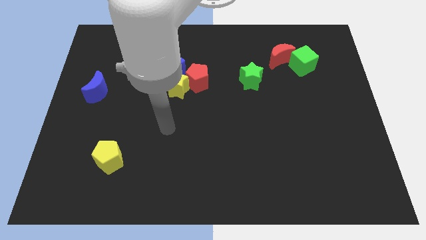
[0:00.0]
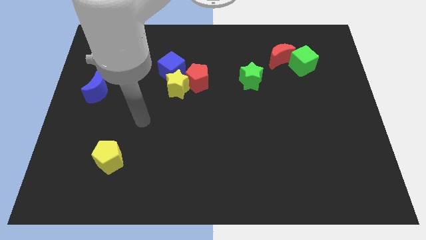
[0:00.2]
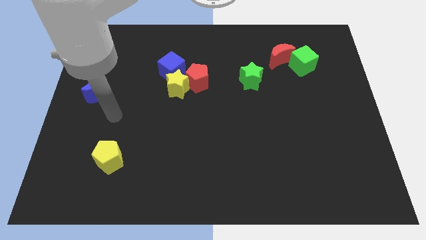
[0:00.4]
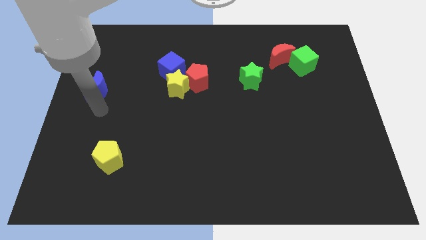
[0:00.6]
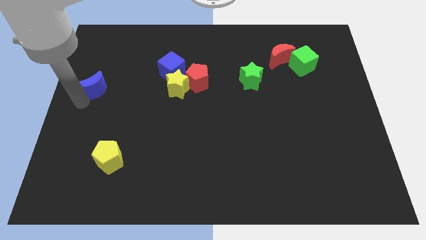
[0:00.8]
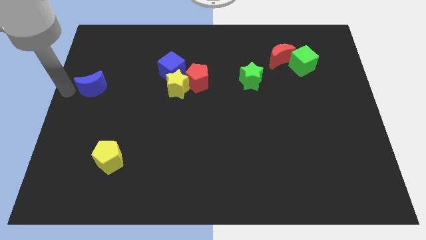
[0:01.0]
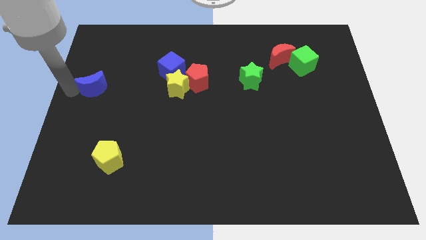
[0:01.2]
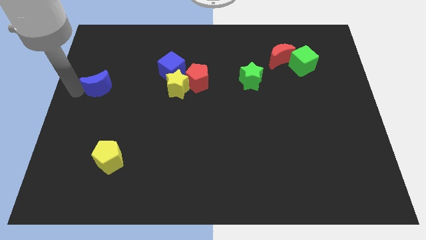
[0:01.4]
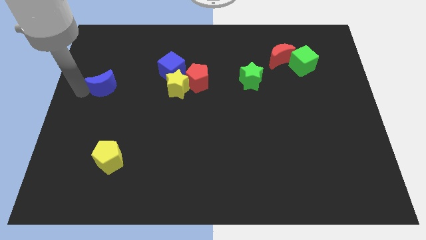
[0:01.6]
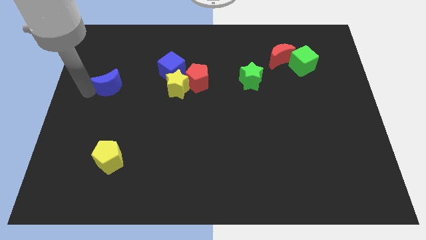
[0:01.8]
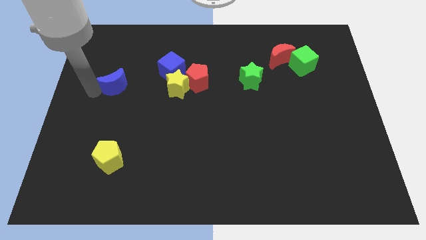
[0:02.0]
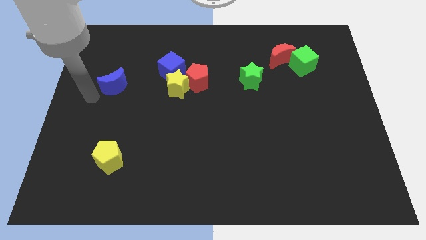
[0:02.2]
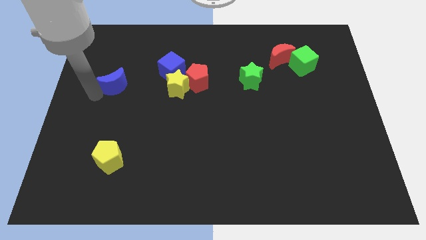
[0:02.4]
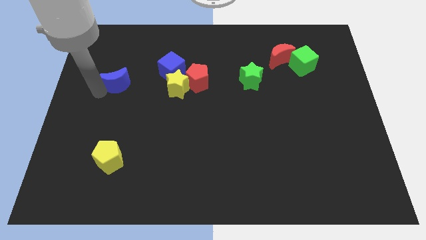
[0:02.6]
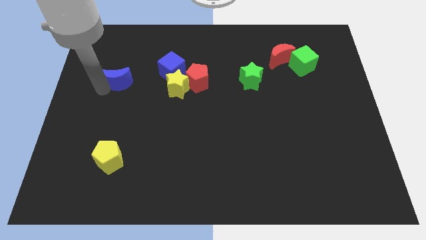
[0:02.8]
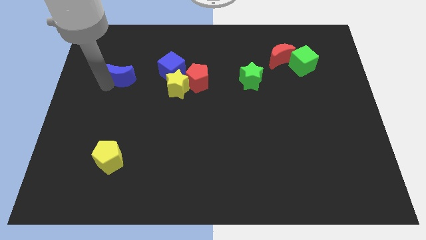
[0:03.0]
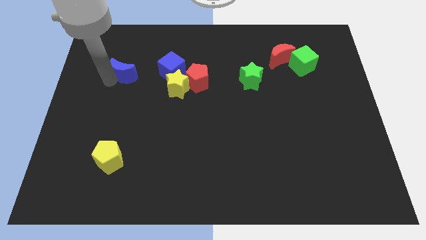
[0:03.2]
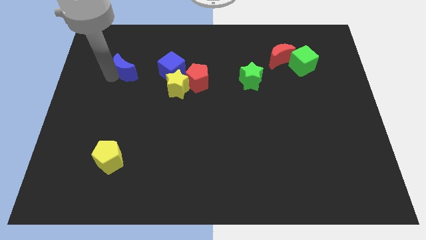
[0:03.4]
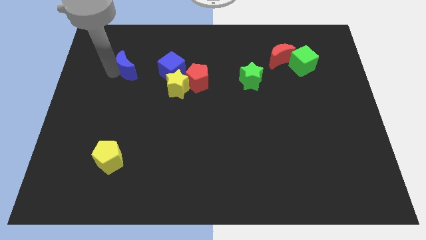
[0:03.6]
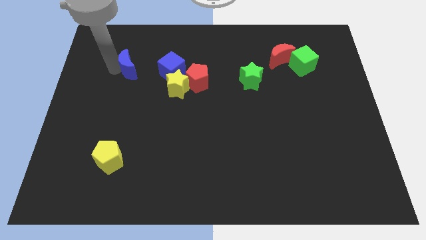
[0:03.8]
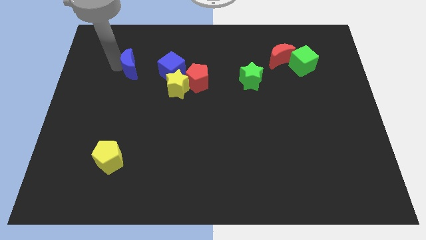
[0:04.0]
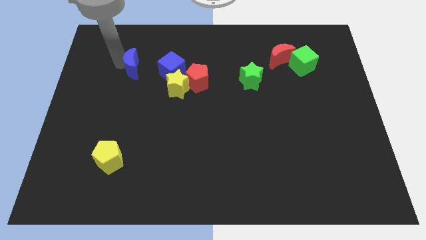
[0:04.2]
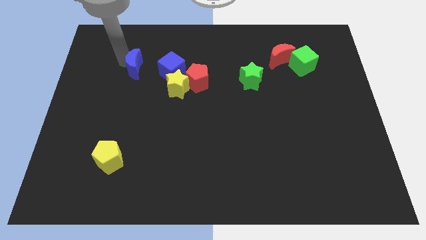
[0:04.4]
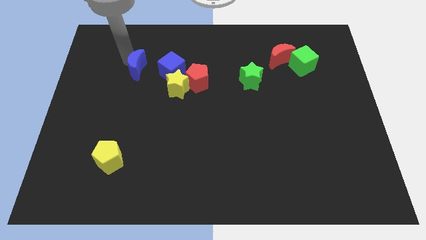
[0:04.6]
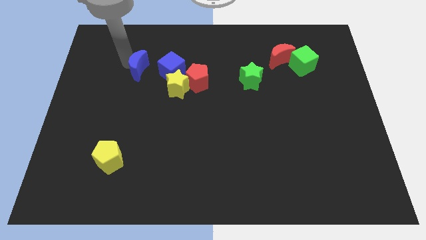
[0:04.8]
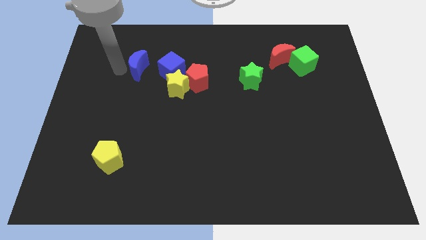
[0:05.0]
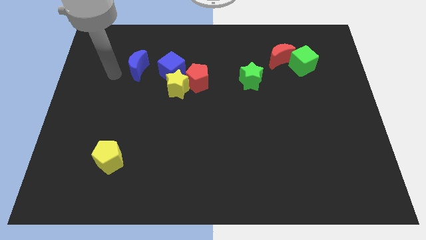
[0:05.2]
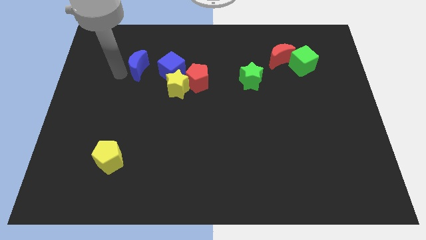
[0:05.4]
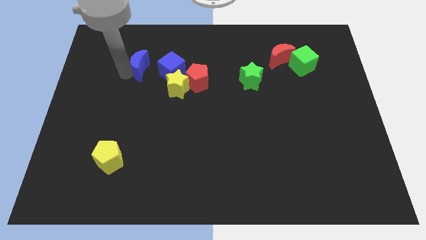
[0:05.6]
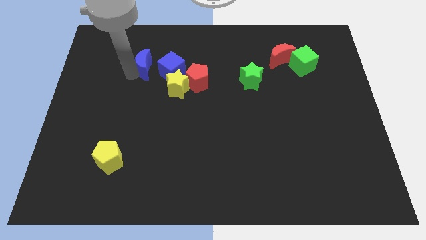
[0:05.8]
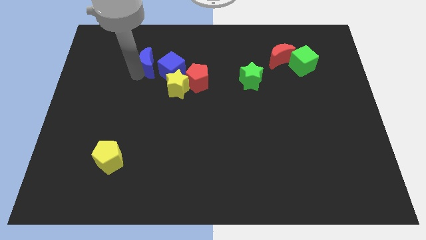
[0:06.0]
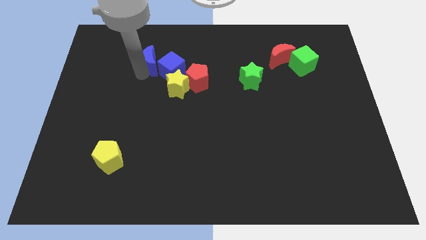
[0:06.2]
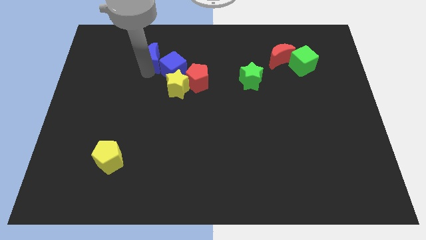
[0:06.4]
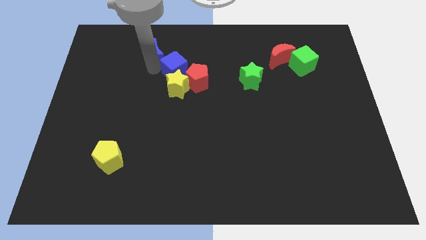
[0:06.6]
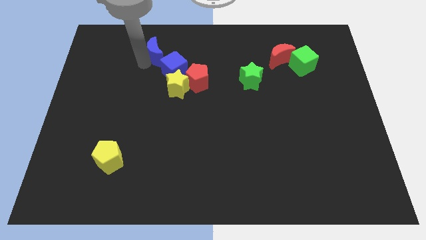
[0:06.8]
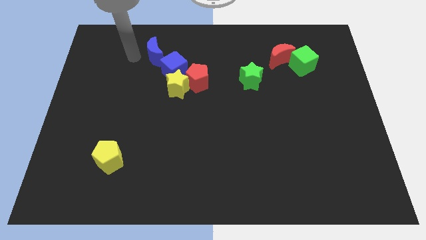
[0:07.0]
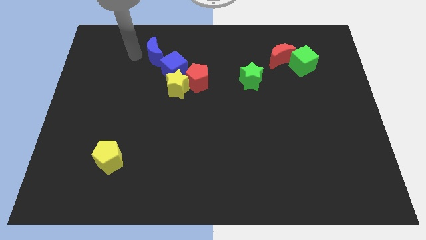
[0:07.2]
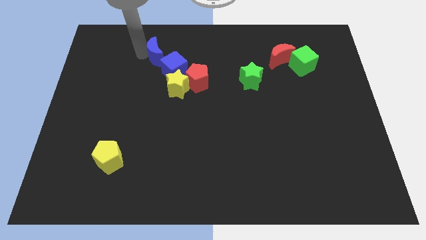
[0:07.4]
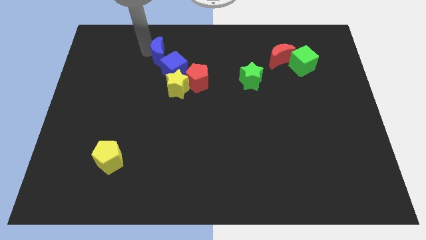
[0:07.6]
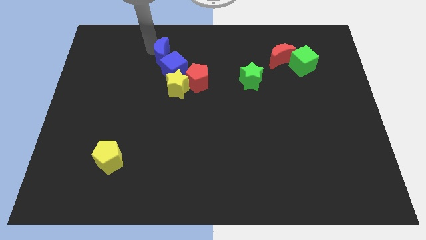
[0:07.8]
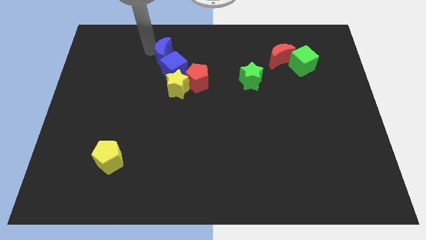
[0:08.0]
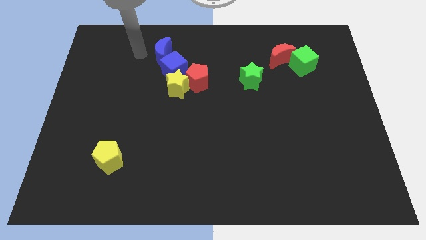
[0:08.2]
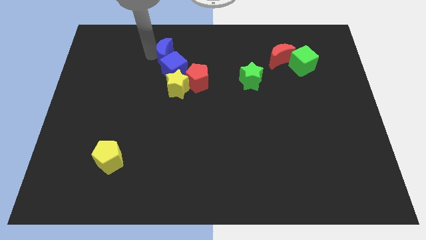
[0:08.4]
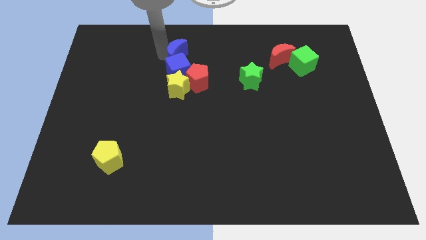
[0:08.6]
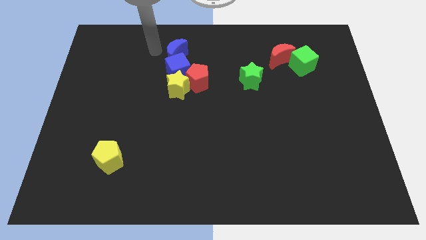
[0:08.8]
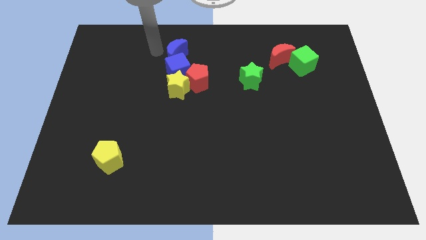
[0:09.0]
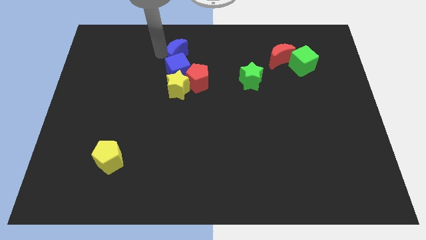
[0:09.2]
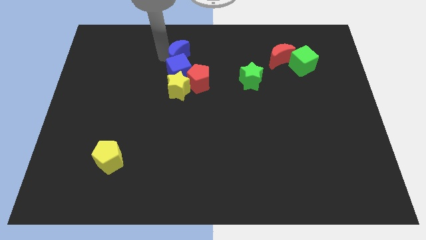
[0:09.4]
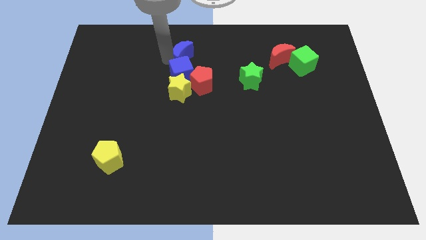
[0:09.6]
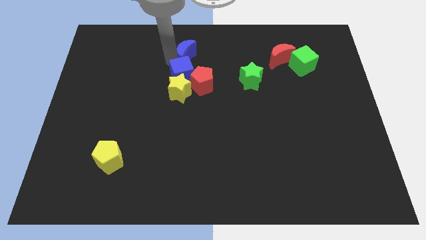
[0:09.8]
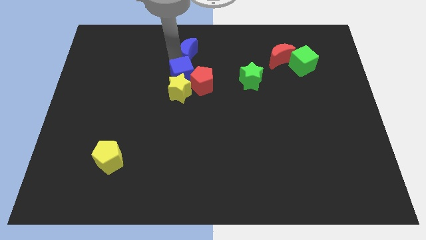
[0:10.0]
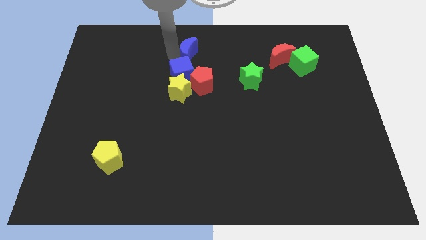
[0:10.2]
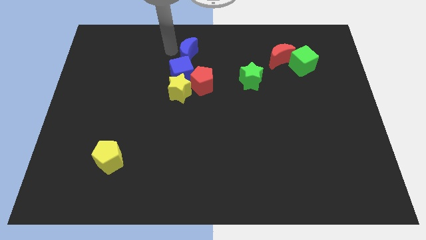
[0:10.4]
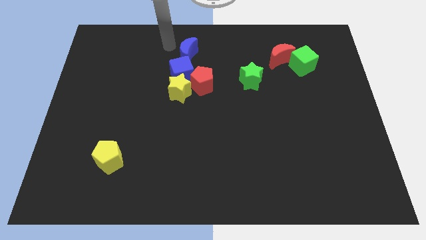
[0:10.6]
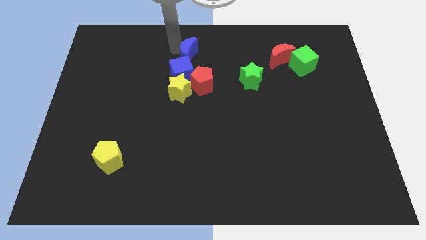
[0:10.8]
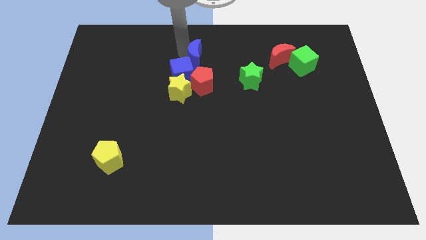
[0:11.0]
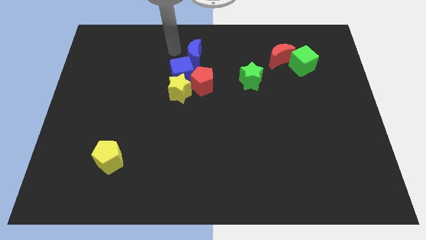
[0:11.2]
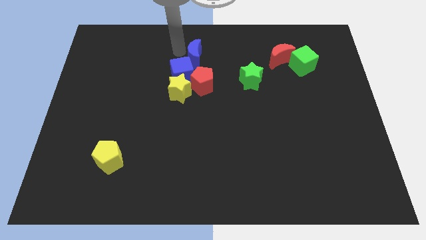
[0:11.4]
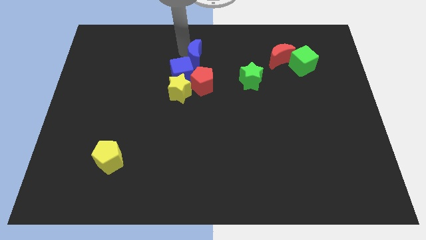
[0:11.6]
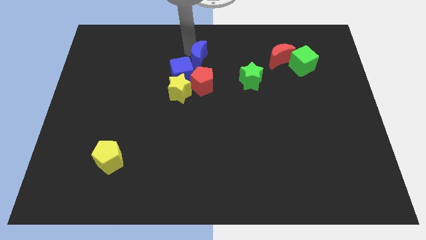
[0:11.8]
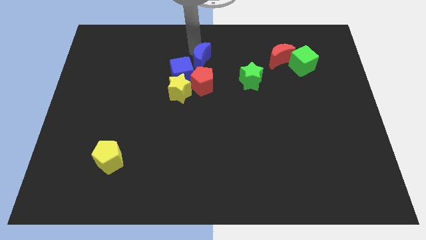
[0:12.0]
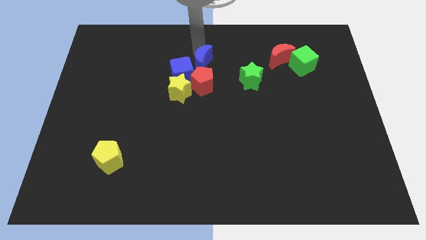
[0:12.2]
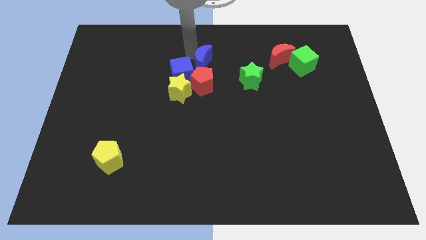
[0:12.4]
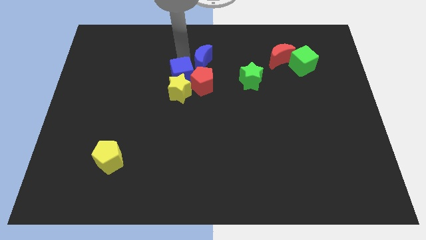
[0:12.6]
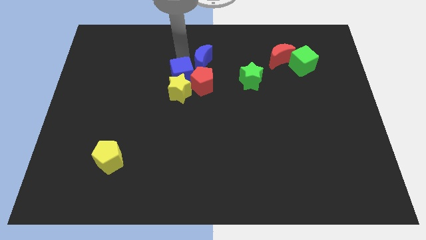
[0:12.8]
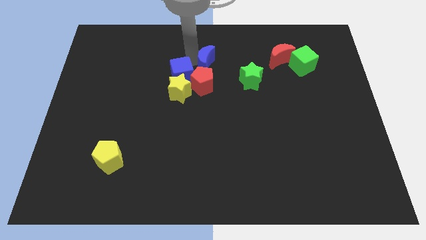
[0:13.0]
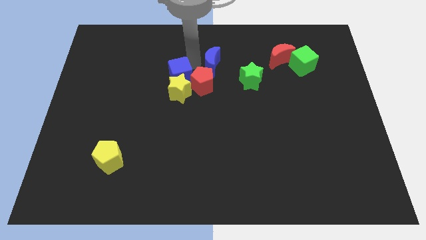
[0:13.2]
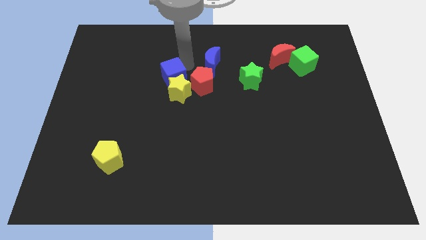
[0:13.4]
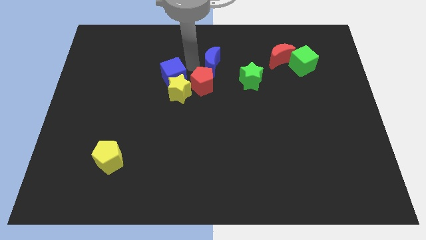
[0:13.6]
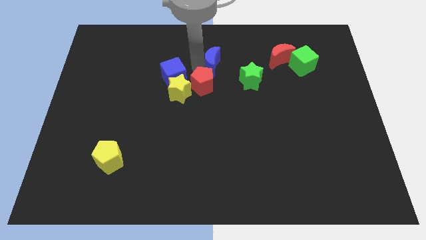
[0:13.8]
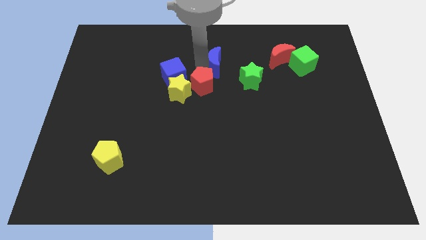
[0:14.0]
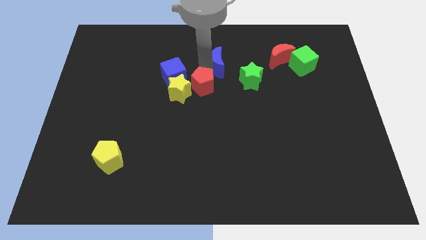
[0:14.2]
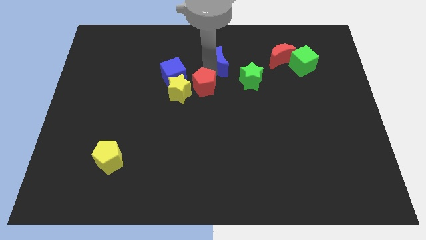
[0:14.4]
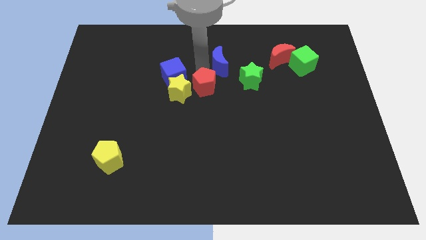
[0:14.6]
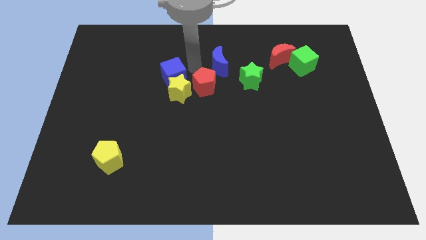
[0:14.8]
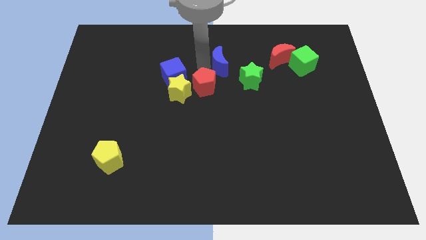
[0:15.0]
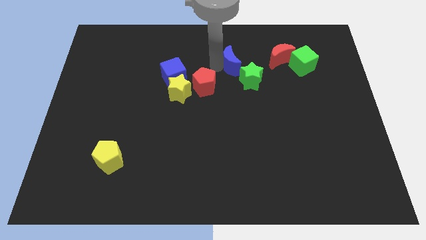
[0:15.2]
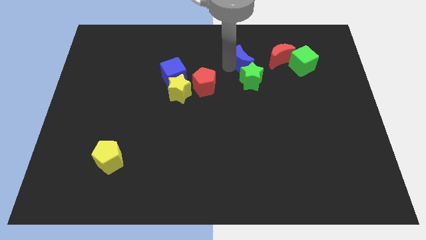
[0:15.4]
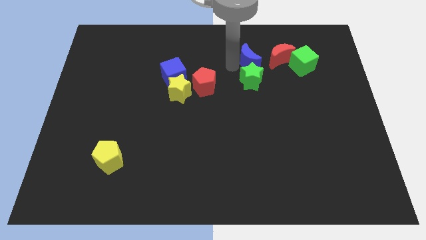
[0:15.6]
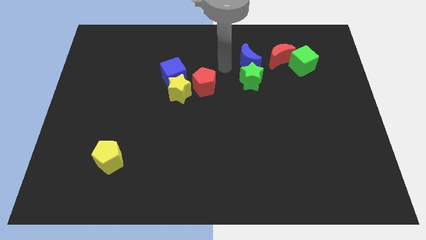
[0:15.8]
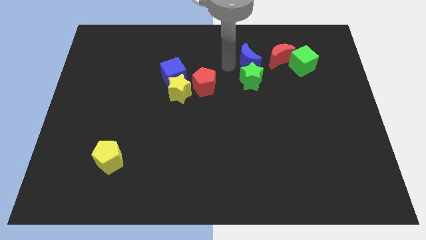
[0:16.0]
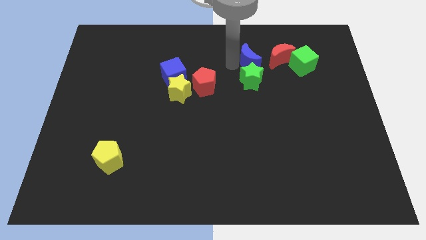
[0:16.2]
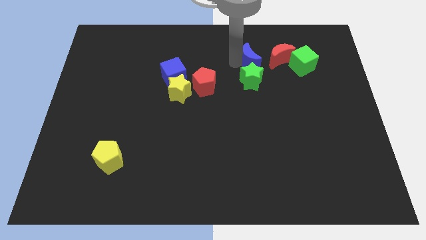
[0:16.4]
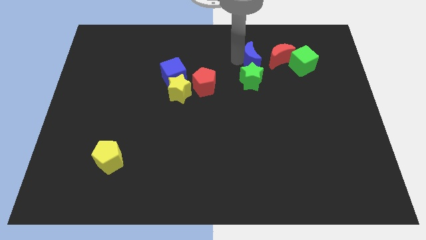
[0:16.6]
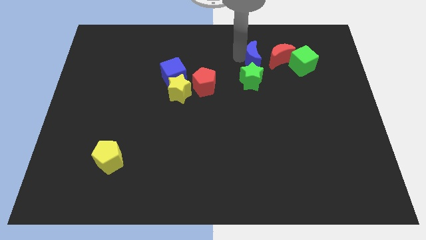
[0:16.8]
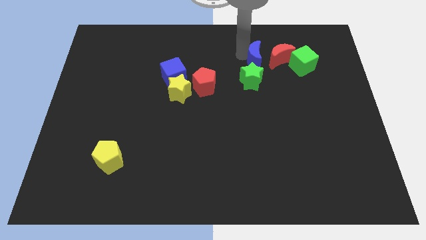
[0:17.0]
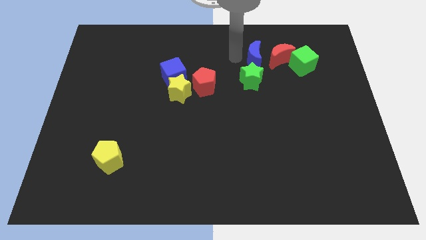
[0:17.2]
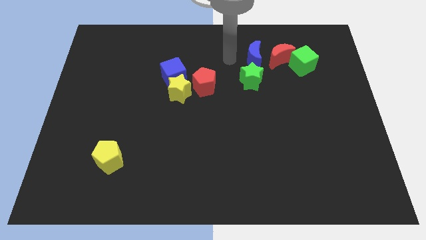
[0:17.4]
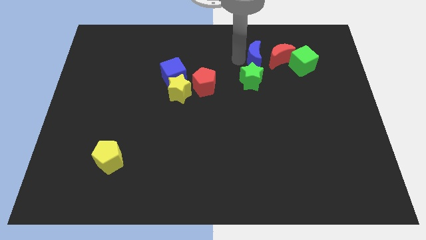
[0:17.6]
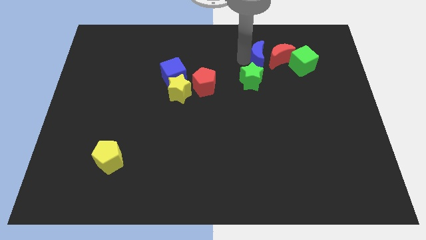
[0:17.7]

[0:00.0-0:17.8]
push the blue moon towards the red moon
